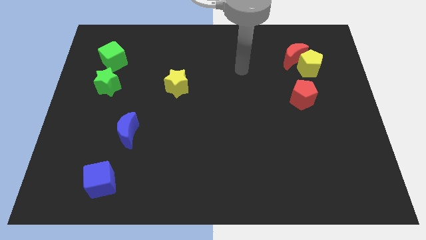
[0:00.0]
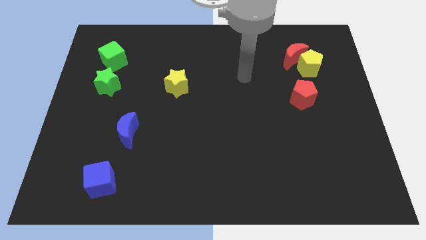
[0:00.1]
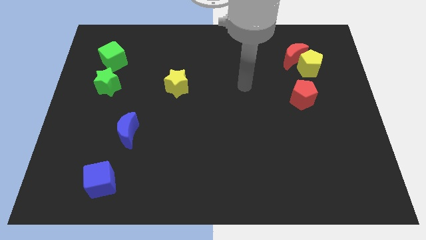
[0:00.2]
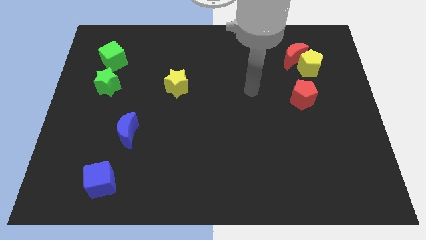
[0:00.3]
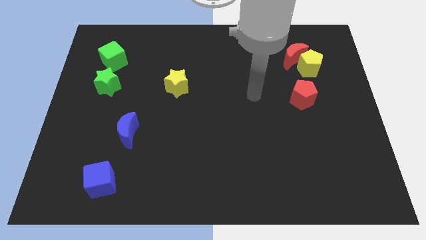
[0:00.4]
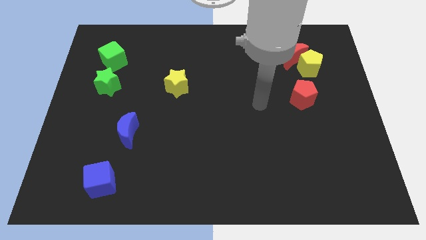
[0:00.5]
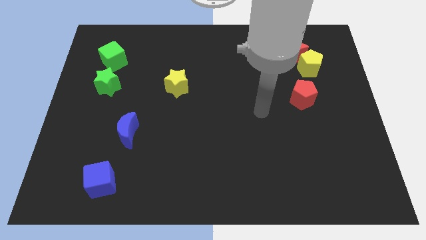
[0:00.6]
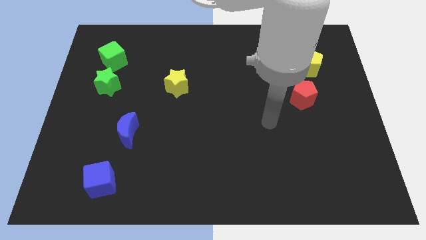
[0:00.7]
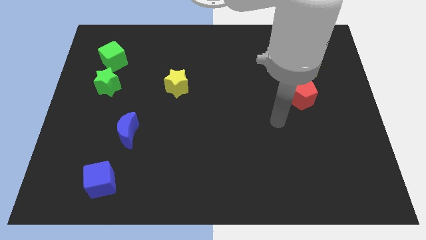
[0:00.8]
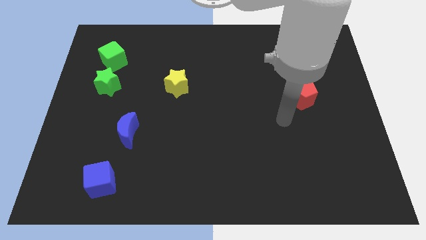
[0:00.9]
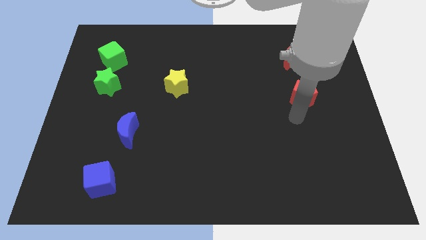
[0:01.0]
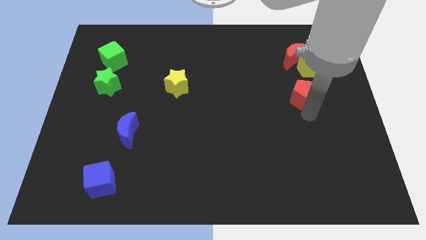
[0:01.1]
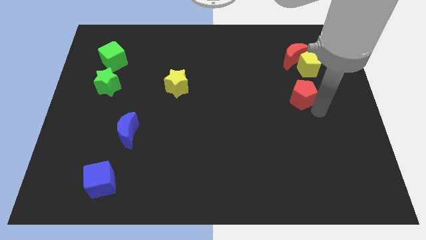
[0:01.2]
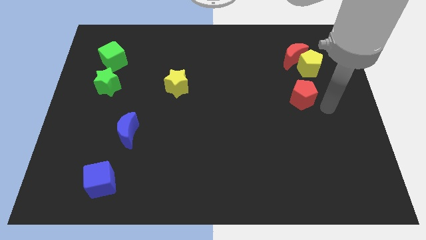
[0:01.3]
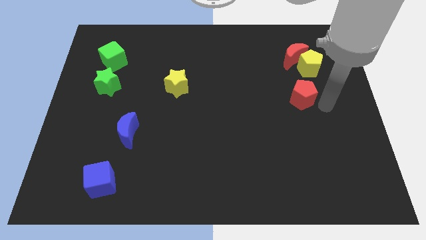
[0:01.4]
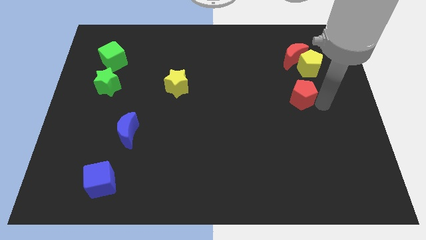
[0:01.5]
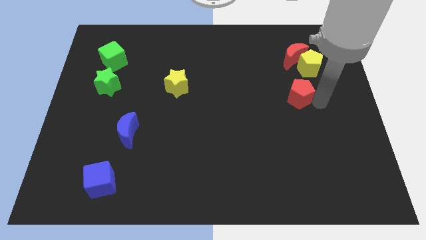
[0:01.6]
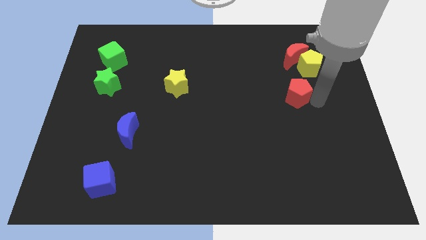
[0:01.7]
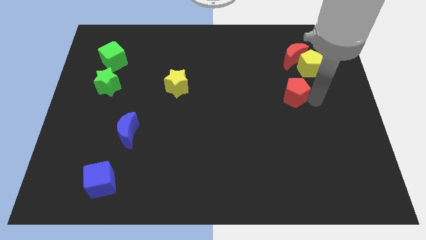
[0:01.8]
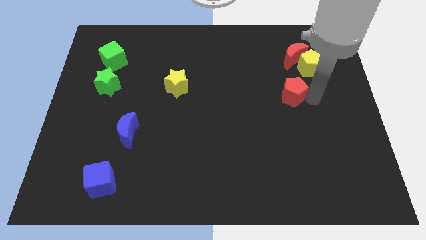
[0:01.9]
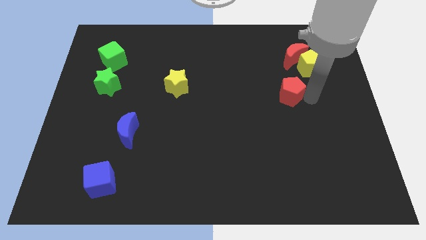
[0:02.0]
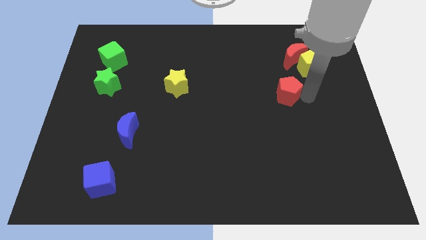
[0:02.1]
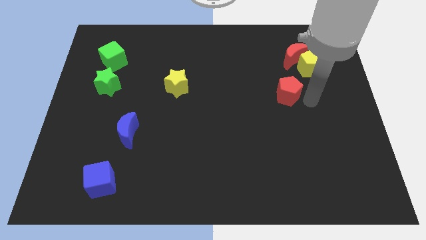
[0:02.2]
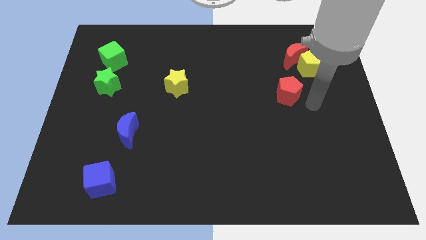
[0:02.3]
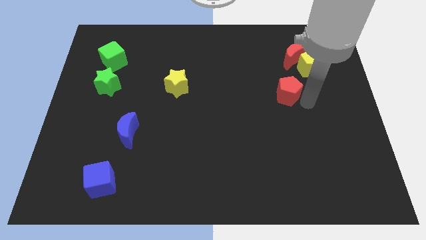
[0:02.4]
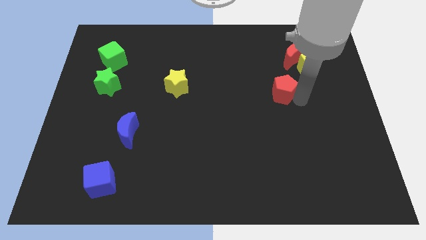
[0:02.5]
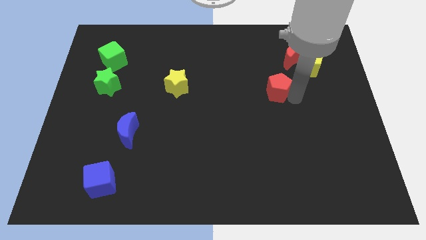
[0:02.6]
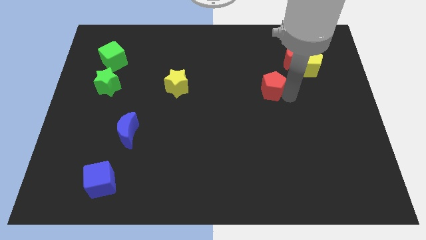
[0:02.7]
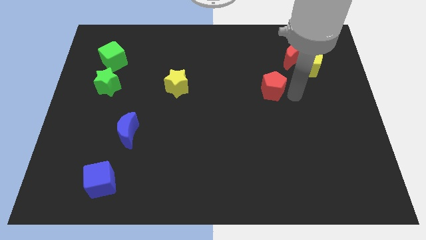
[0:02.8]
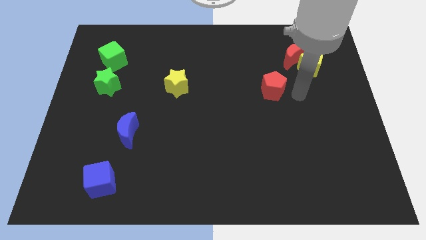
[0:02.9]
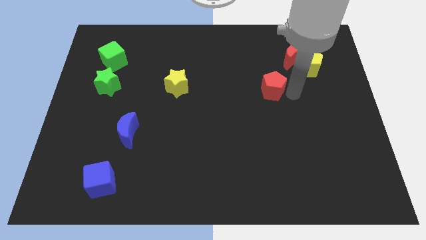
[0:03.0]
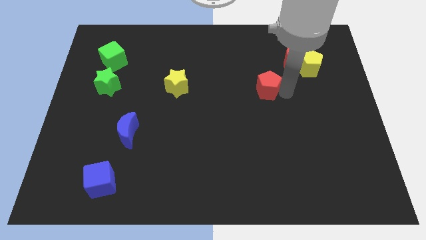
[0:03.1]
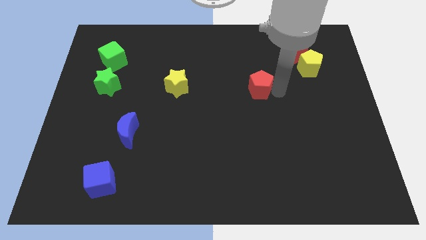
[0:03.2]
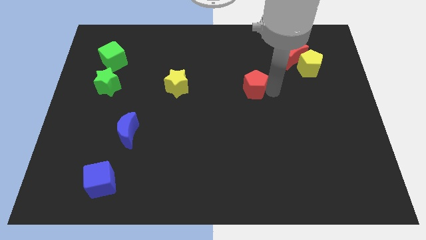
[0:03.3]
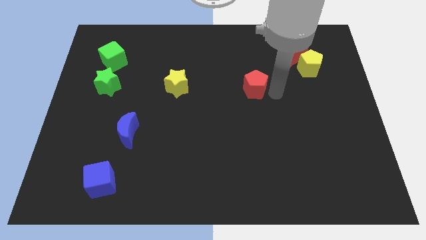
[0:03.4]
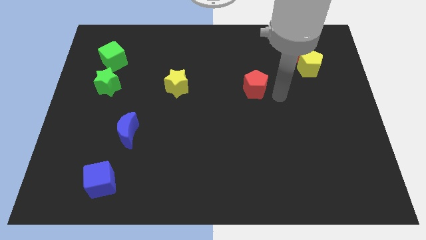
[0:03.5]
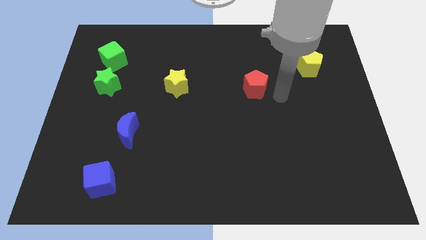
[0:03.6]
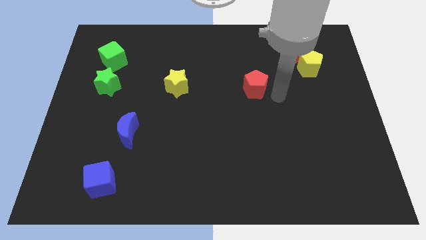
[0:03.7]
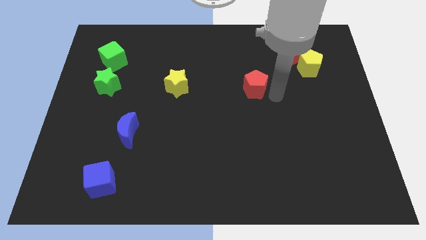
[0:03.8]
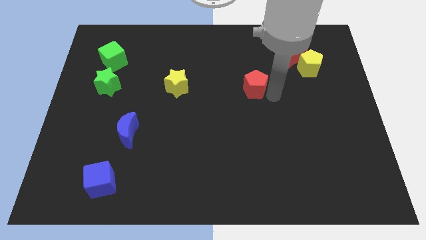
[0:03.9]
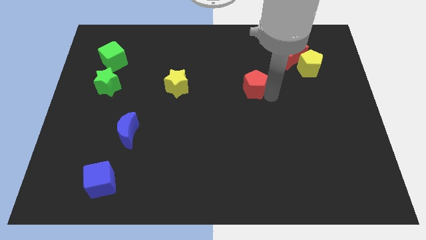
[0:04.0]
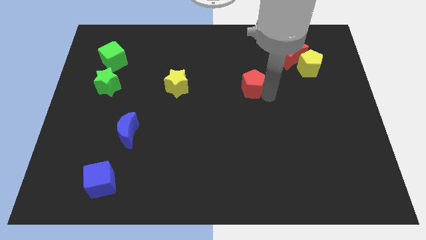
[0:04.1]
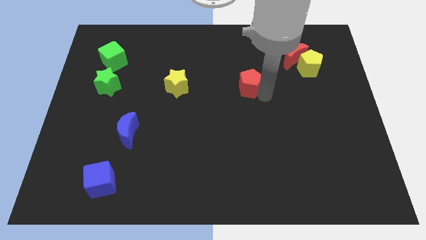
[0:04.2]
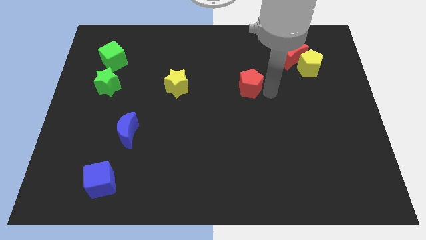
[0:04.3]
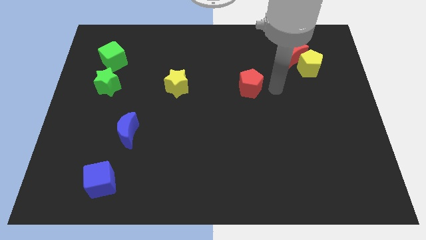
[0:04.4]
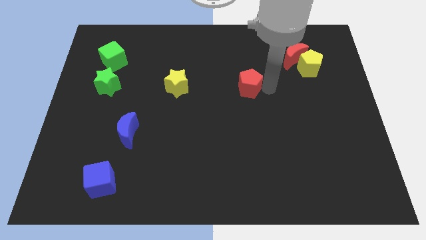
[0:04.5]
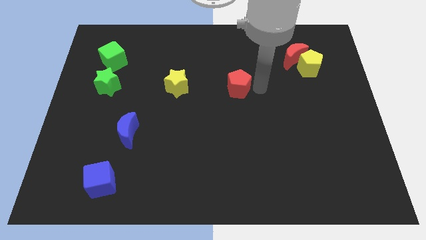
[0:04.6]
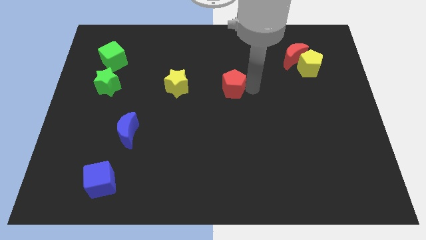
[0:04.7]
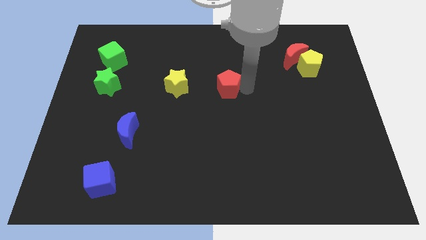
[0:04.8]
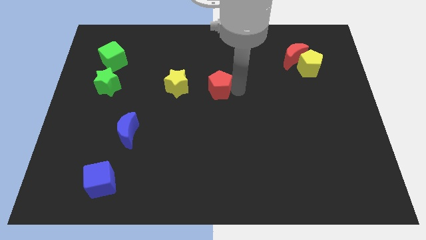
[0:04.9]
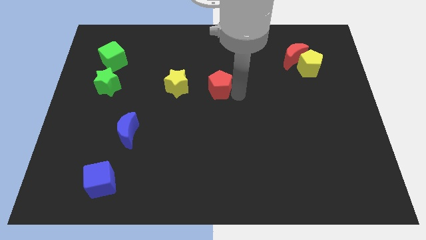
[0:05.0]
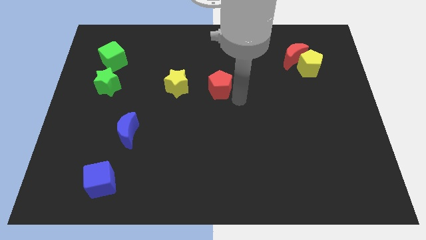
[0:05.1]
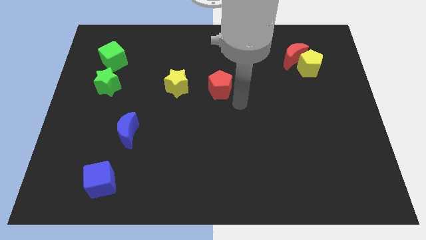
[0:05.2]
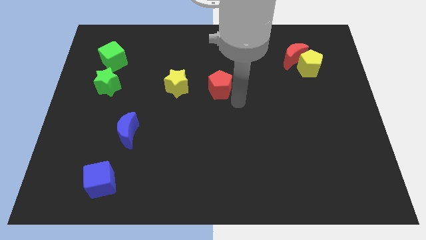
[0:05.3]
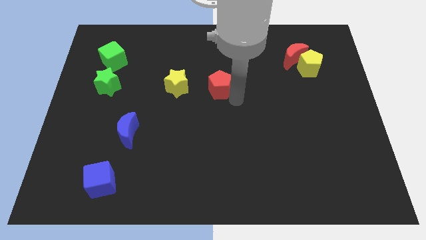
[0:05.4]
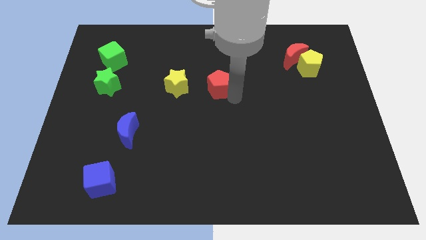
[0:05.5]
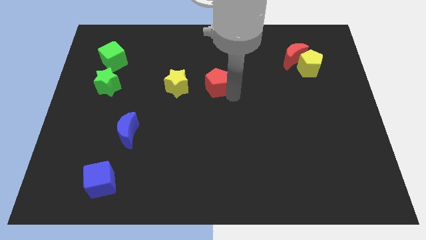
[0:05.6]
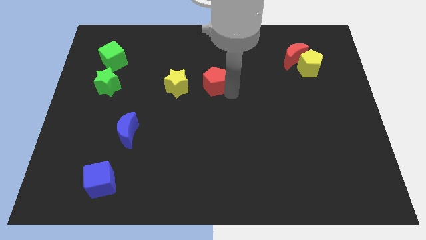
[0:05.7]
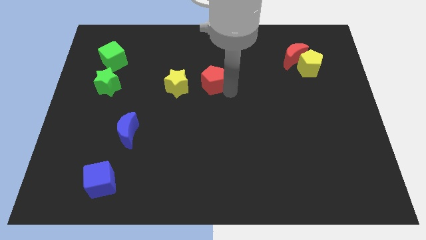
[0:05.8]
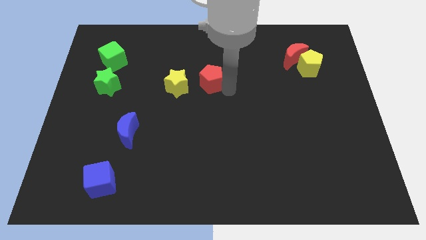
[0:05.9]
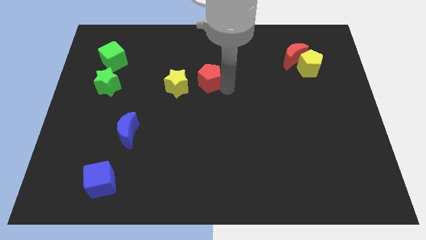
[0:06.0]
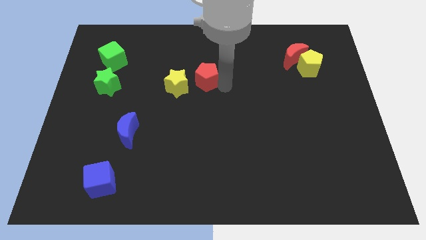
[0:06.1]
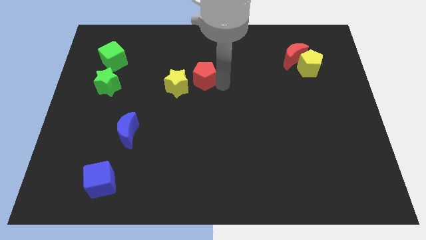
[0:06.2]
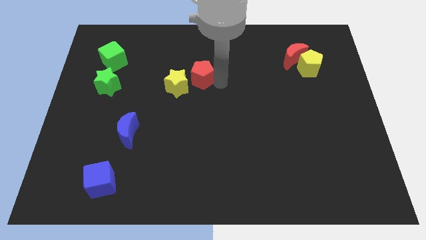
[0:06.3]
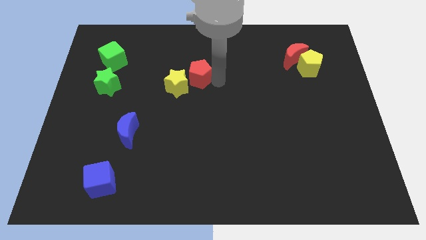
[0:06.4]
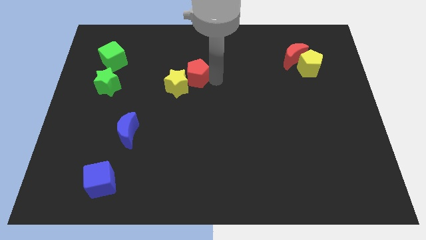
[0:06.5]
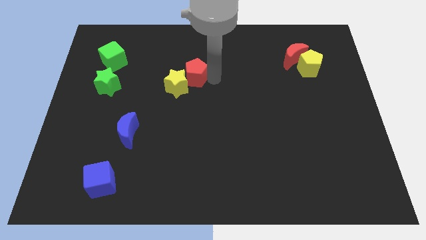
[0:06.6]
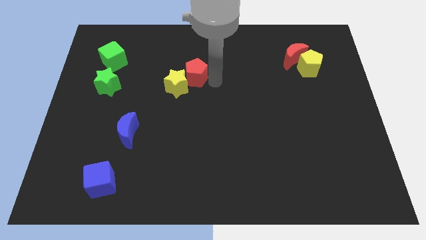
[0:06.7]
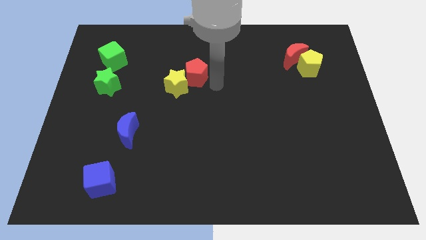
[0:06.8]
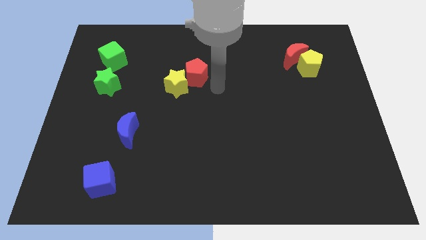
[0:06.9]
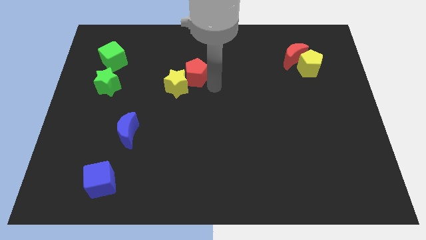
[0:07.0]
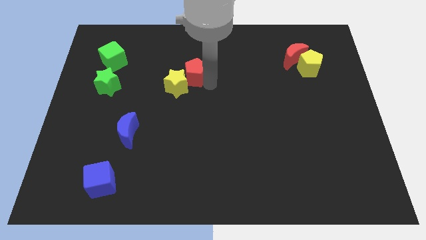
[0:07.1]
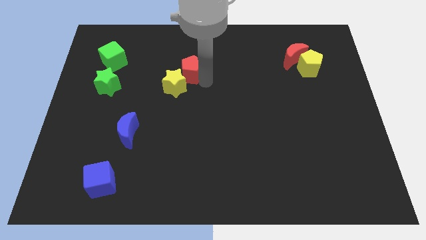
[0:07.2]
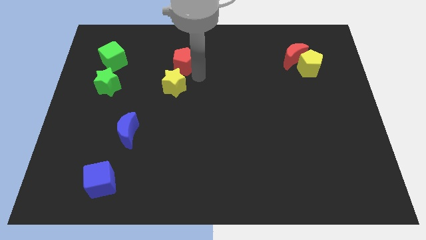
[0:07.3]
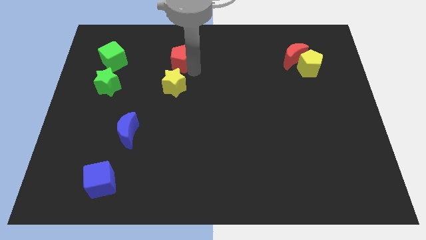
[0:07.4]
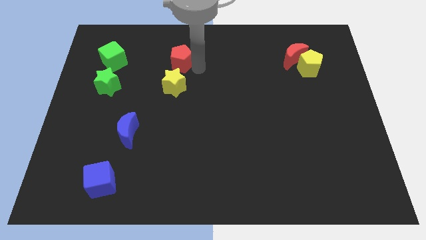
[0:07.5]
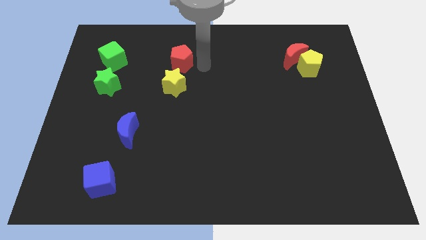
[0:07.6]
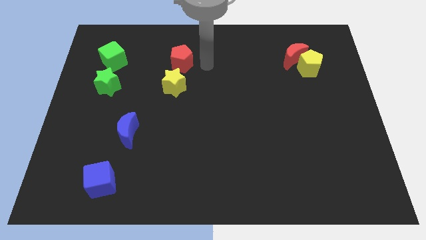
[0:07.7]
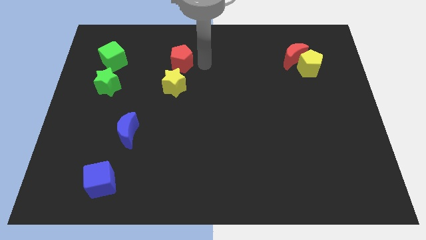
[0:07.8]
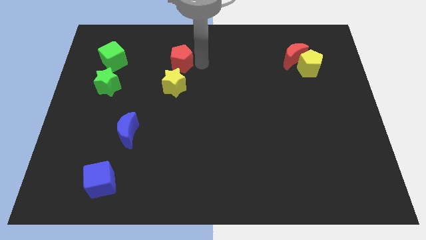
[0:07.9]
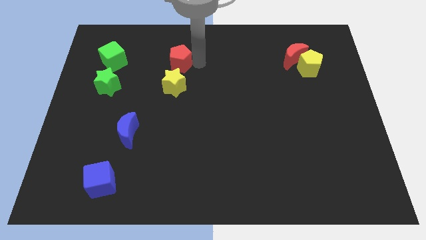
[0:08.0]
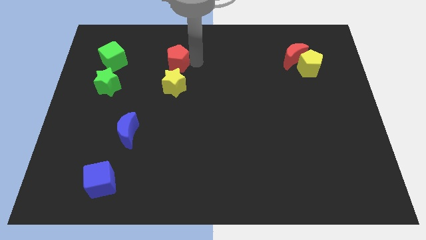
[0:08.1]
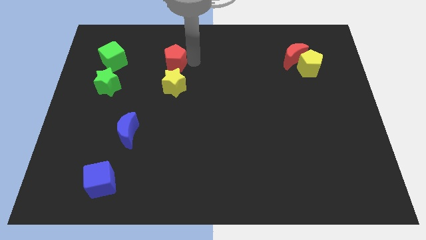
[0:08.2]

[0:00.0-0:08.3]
move the red pentagon right of the green cube
